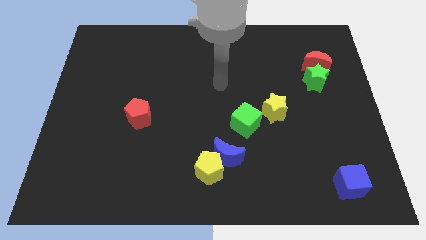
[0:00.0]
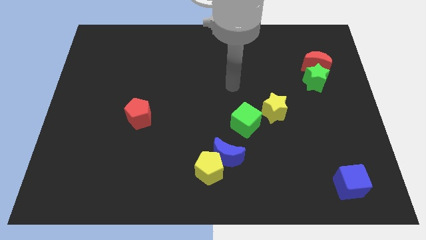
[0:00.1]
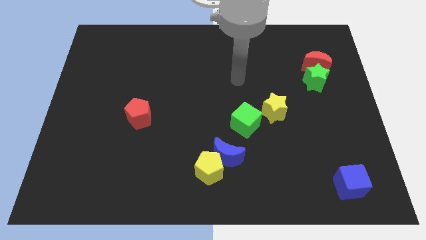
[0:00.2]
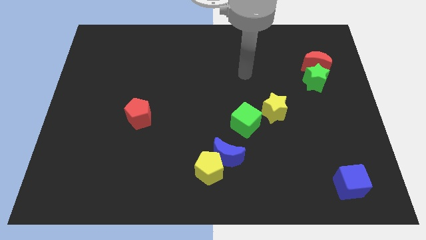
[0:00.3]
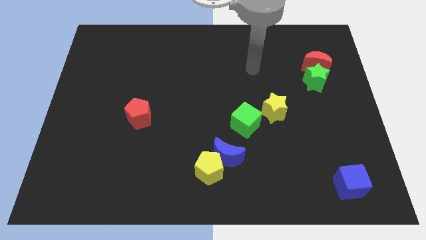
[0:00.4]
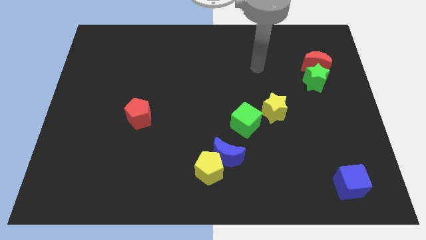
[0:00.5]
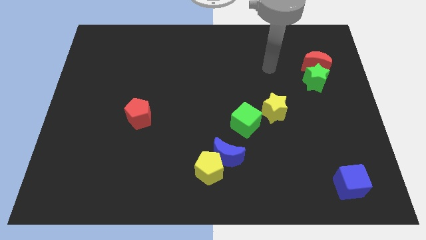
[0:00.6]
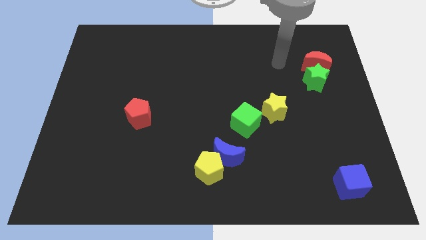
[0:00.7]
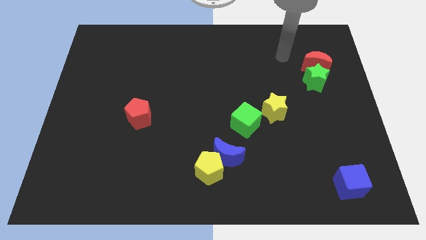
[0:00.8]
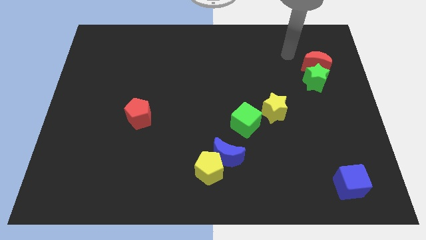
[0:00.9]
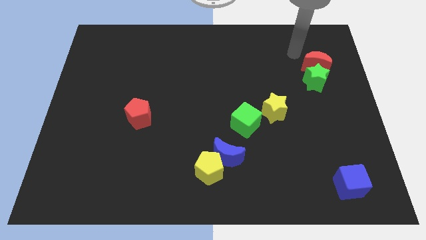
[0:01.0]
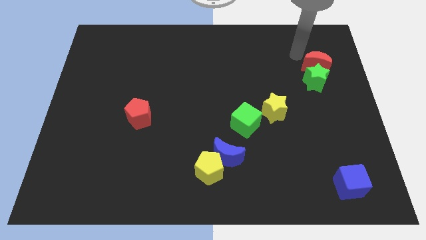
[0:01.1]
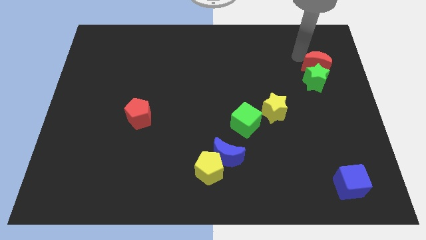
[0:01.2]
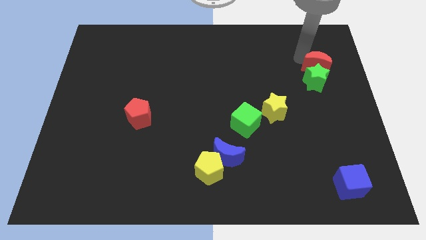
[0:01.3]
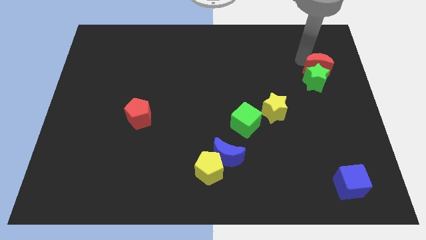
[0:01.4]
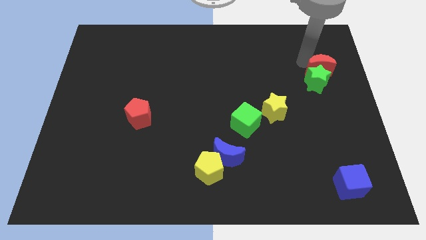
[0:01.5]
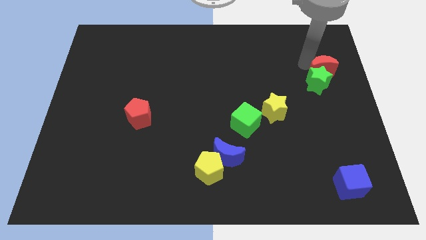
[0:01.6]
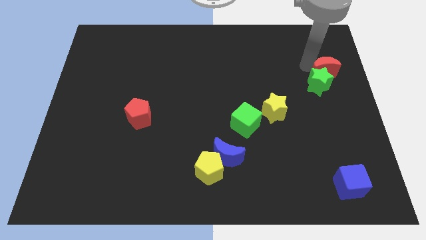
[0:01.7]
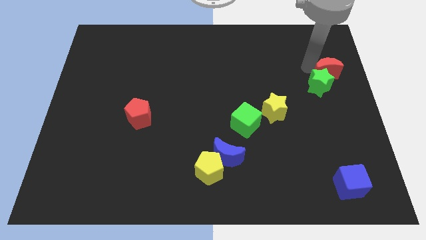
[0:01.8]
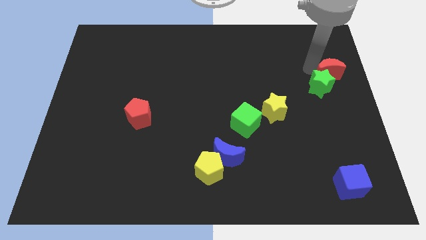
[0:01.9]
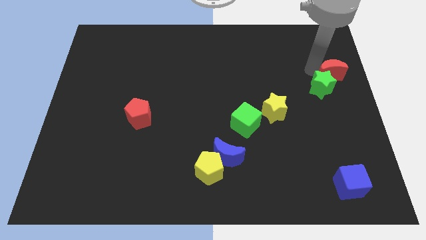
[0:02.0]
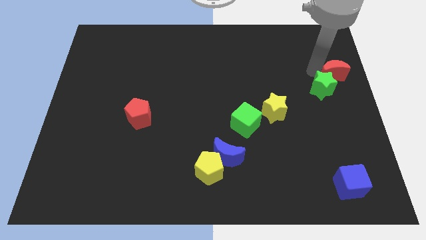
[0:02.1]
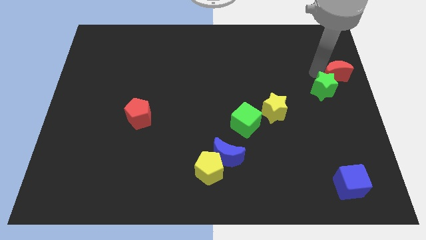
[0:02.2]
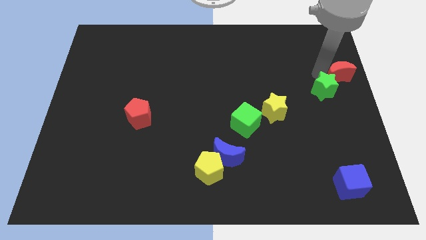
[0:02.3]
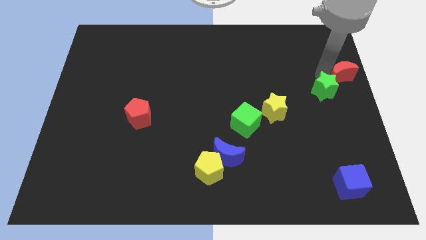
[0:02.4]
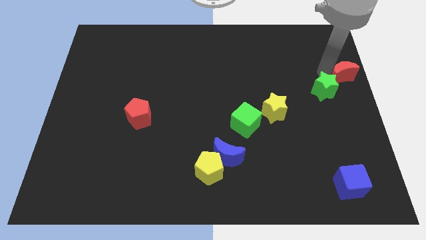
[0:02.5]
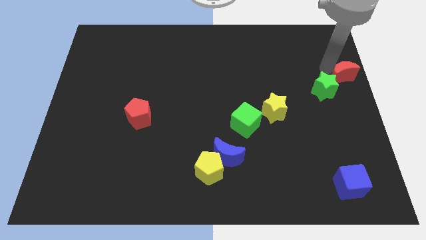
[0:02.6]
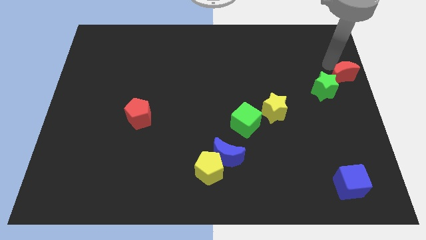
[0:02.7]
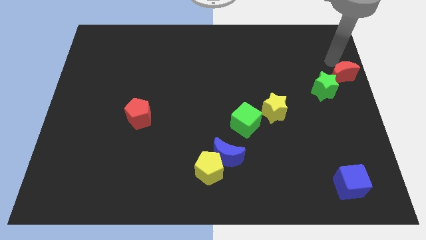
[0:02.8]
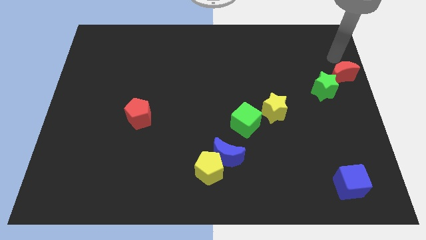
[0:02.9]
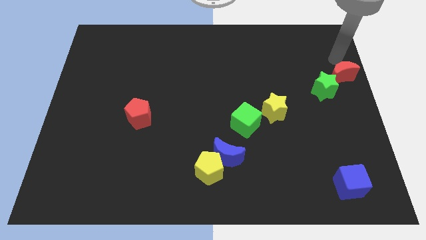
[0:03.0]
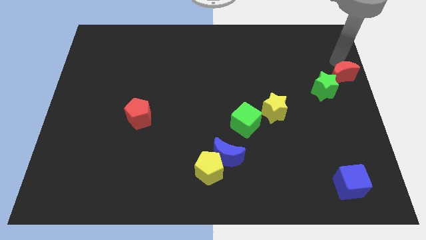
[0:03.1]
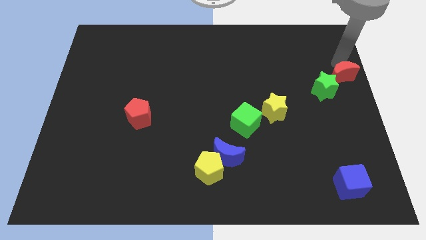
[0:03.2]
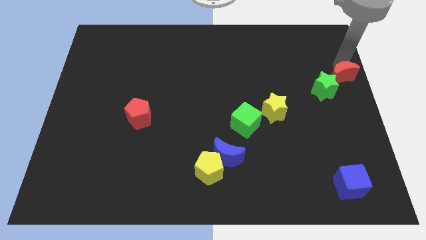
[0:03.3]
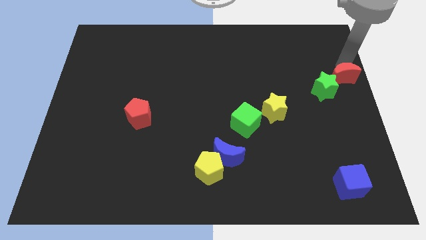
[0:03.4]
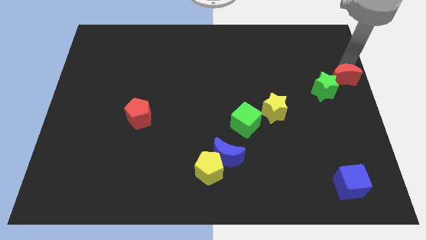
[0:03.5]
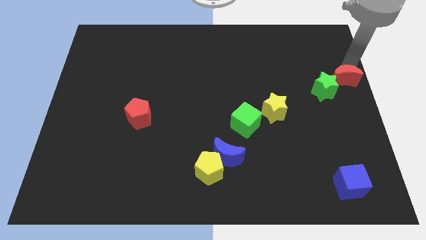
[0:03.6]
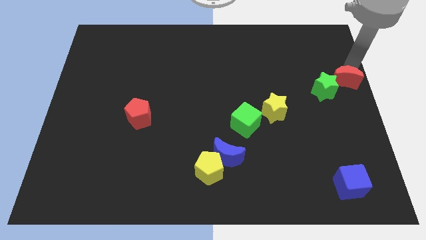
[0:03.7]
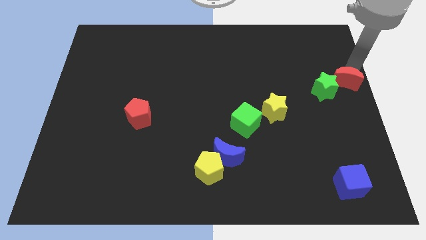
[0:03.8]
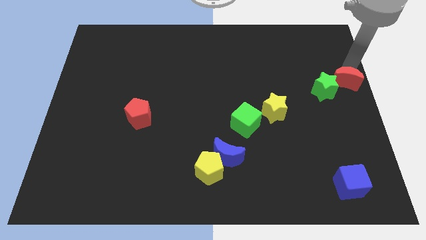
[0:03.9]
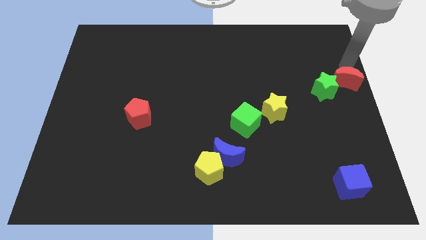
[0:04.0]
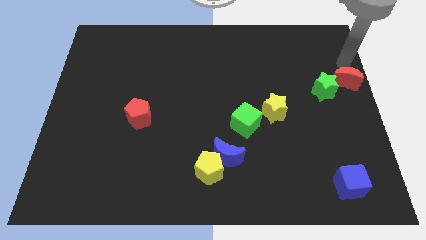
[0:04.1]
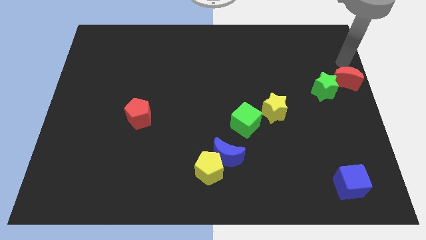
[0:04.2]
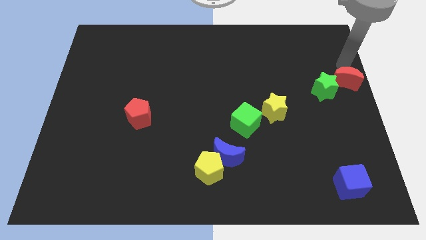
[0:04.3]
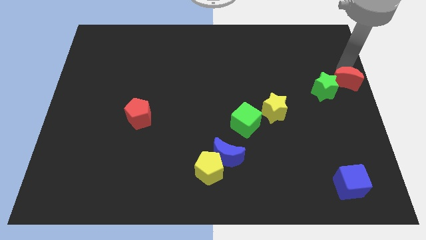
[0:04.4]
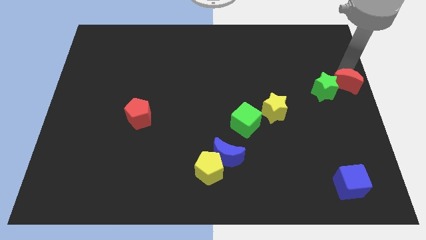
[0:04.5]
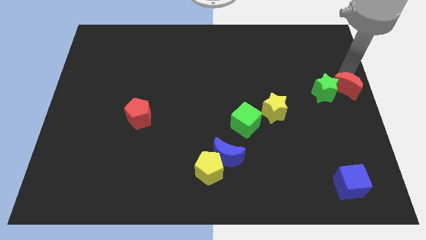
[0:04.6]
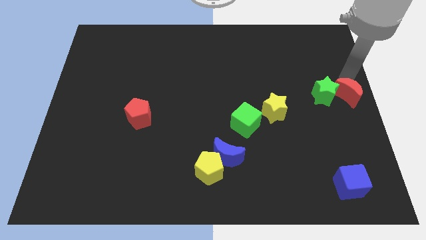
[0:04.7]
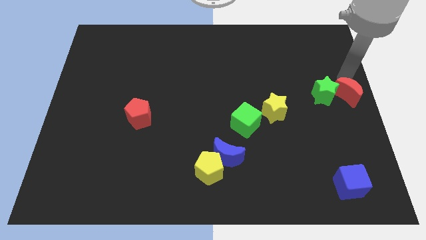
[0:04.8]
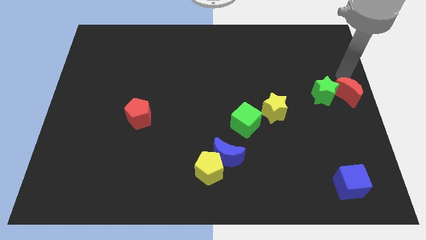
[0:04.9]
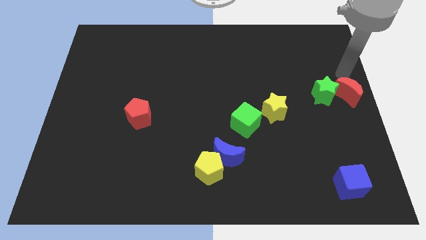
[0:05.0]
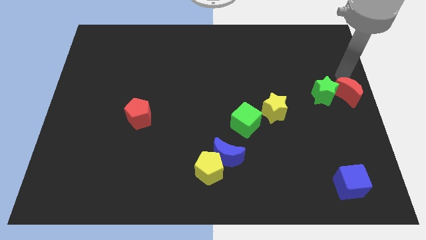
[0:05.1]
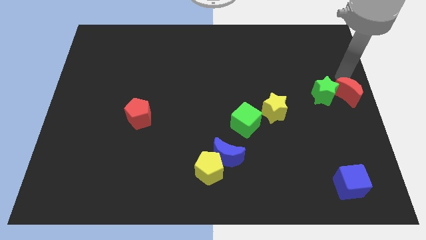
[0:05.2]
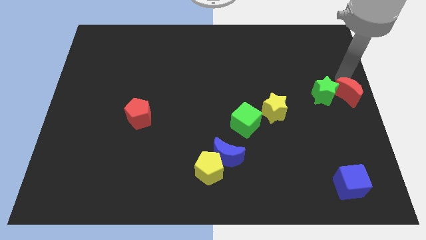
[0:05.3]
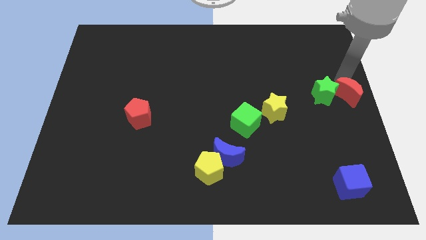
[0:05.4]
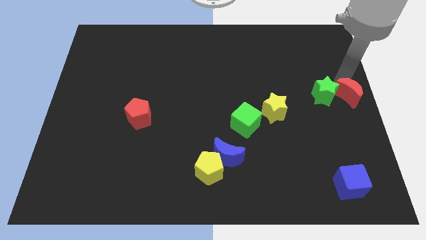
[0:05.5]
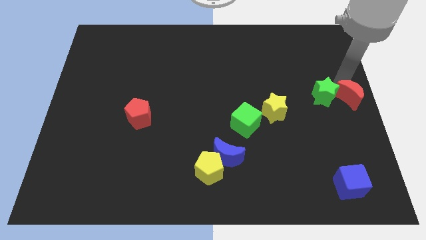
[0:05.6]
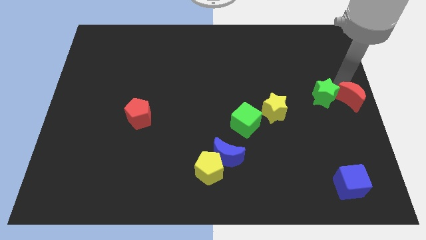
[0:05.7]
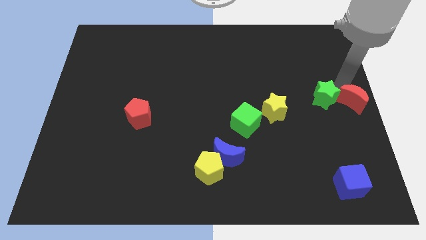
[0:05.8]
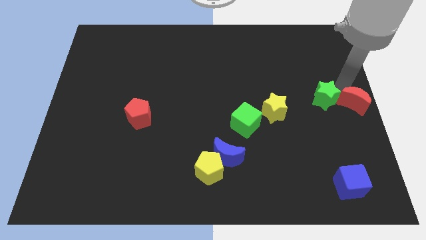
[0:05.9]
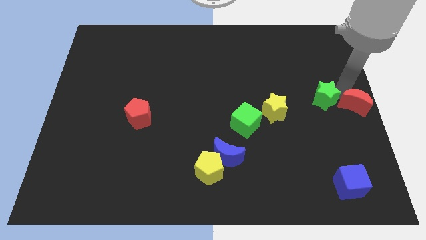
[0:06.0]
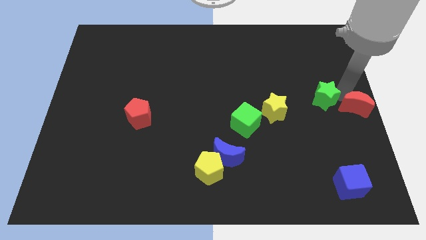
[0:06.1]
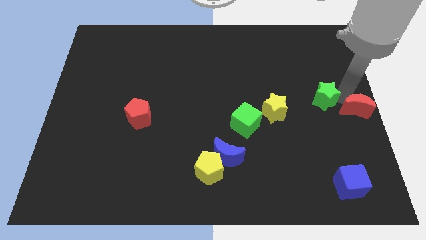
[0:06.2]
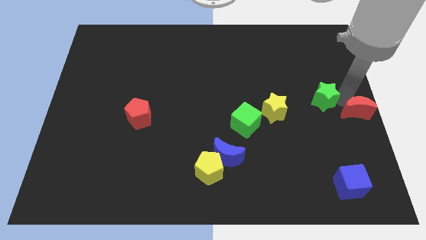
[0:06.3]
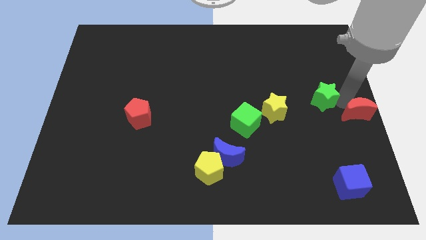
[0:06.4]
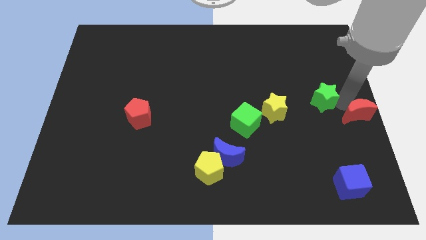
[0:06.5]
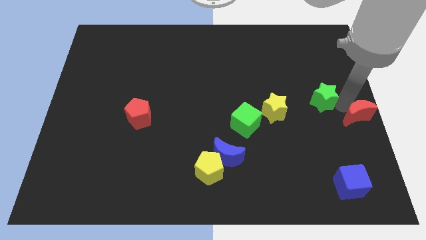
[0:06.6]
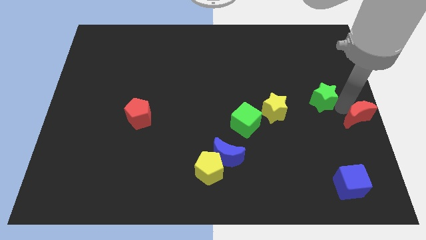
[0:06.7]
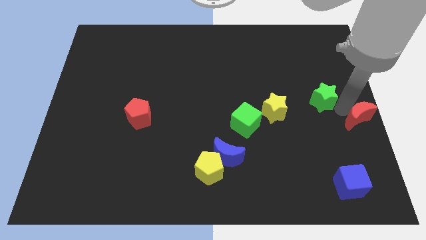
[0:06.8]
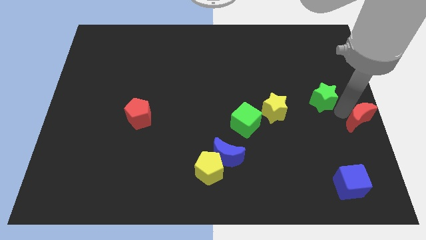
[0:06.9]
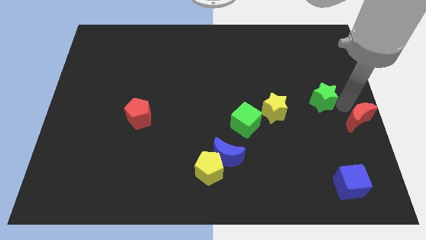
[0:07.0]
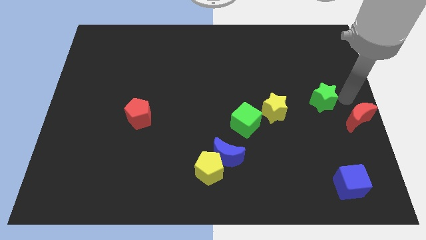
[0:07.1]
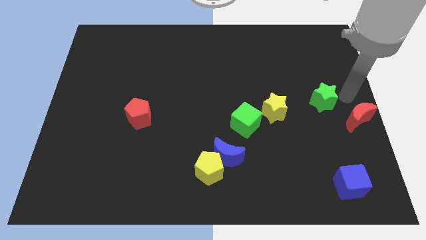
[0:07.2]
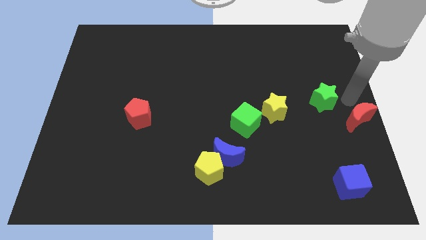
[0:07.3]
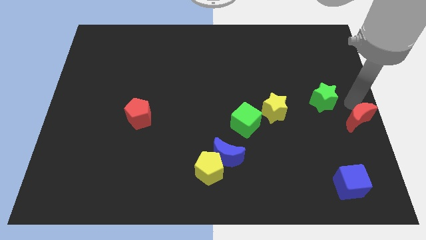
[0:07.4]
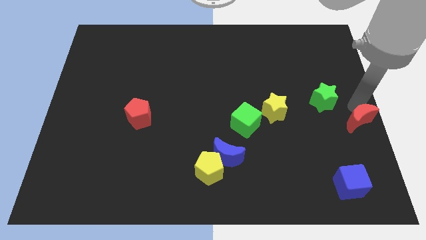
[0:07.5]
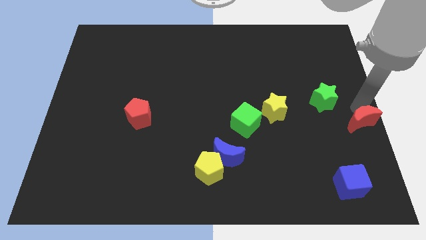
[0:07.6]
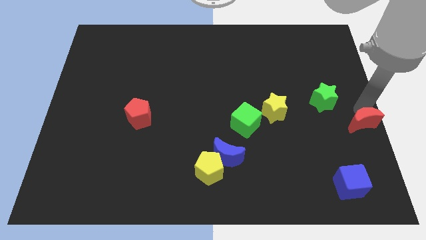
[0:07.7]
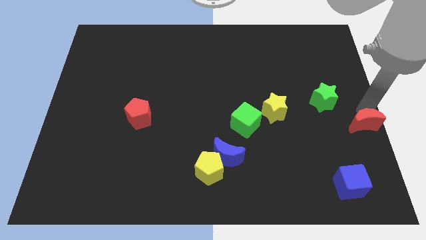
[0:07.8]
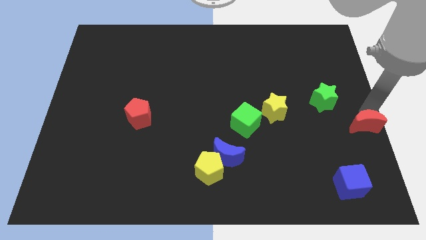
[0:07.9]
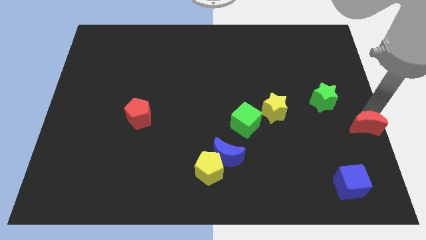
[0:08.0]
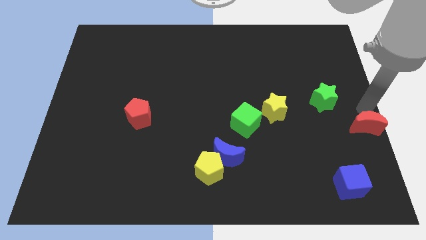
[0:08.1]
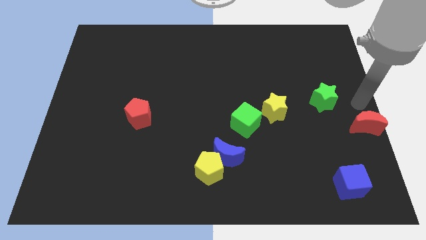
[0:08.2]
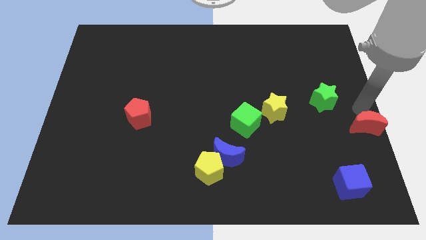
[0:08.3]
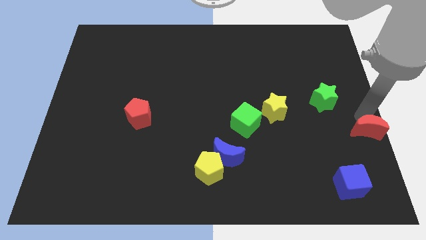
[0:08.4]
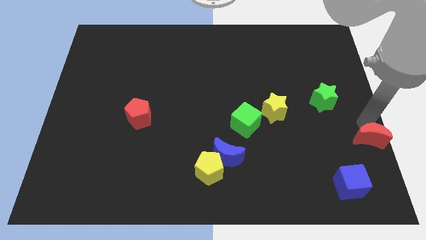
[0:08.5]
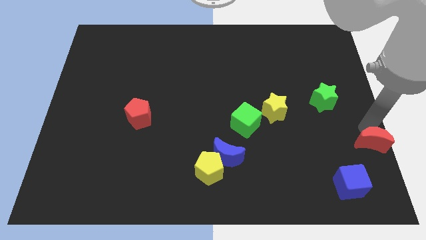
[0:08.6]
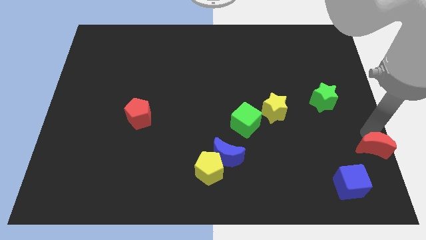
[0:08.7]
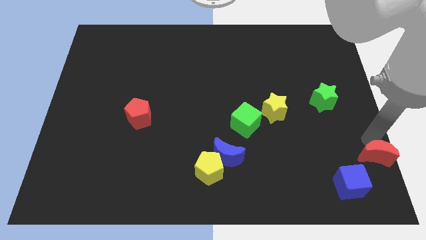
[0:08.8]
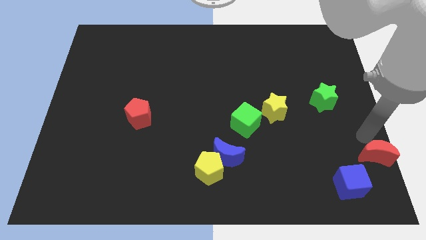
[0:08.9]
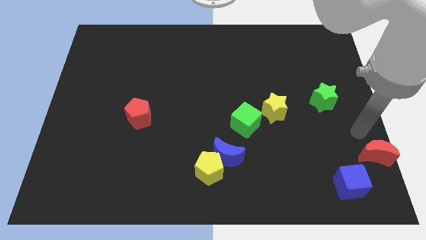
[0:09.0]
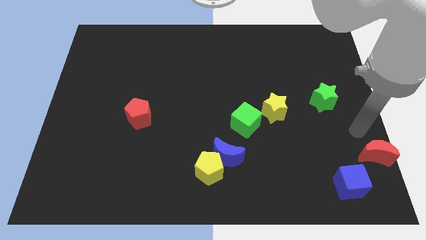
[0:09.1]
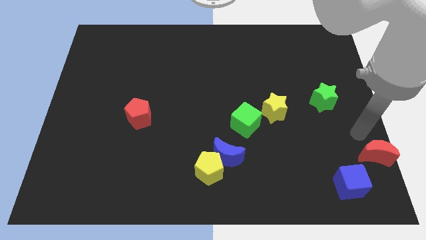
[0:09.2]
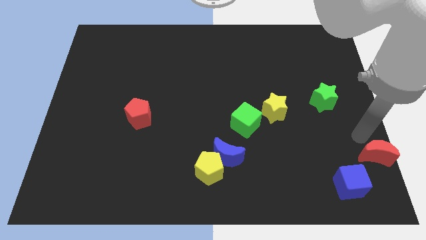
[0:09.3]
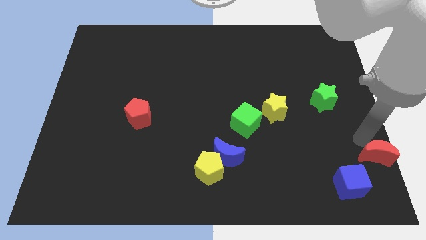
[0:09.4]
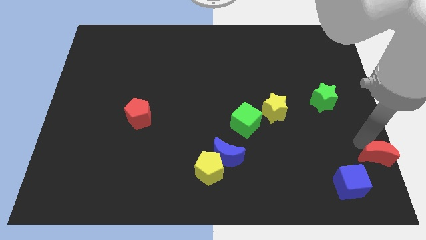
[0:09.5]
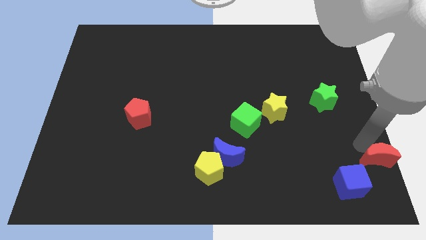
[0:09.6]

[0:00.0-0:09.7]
push the red moon to the lower right corner
